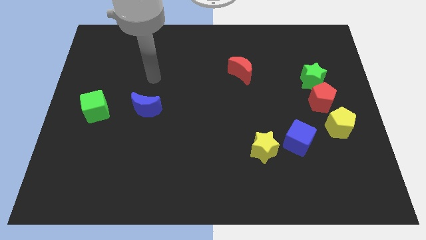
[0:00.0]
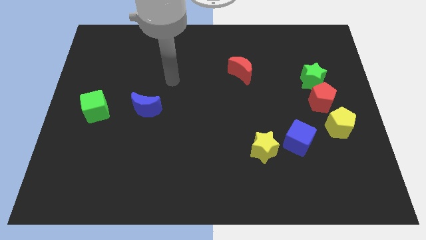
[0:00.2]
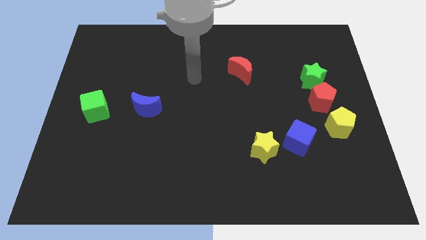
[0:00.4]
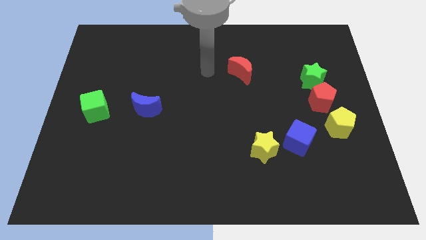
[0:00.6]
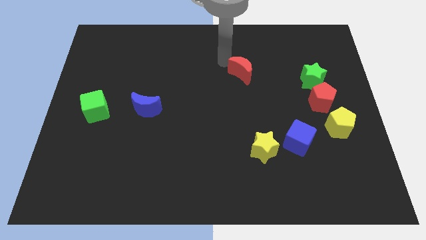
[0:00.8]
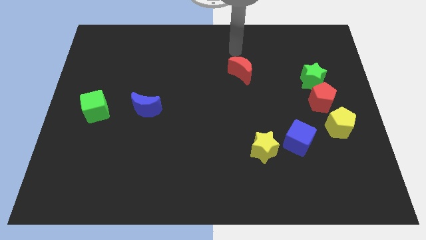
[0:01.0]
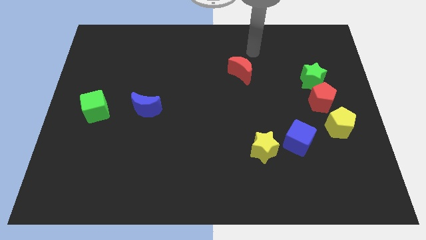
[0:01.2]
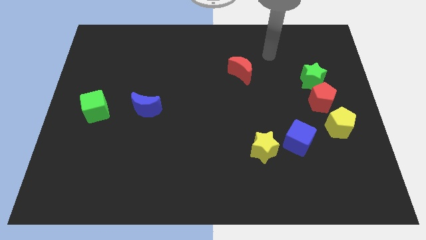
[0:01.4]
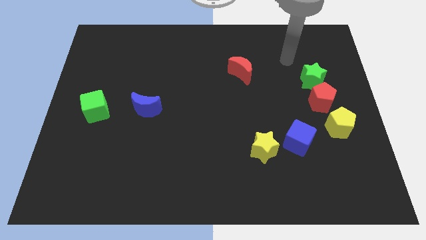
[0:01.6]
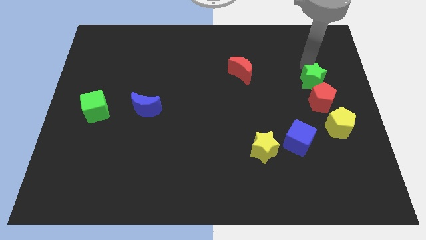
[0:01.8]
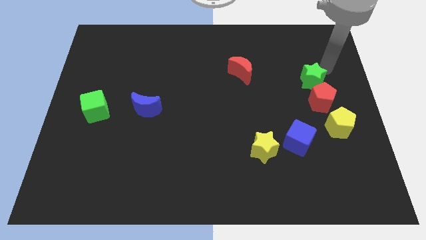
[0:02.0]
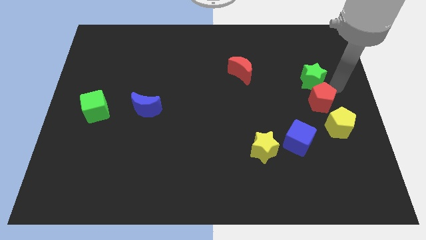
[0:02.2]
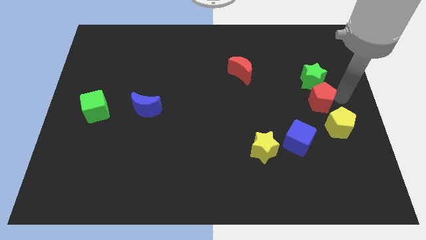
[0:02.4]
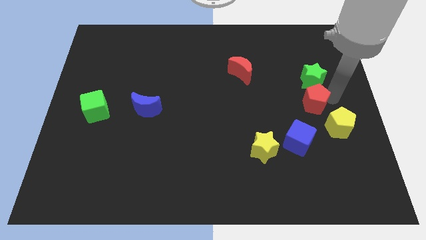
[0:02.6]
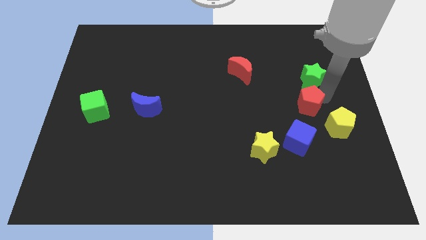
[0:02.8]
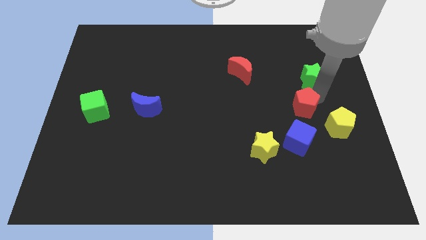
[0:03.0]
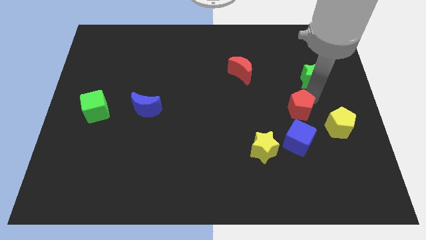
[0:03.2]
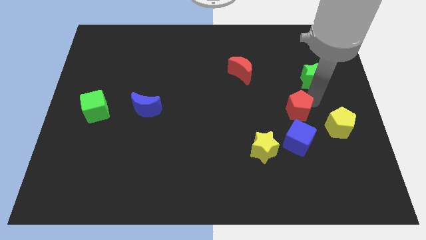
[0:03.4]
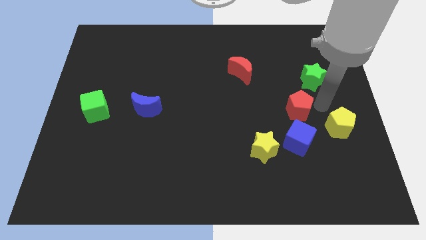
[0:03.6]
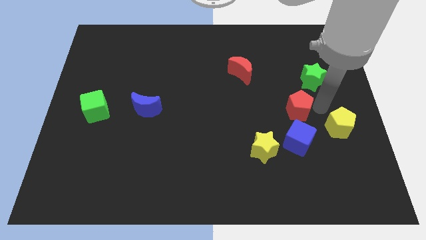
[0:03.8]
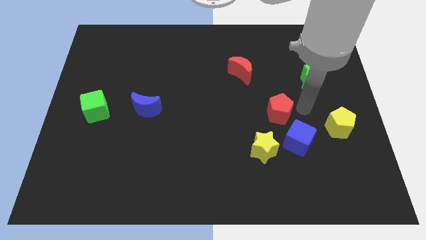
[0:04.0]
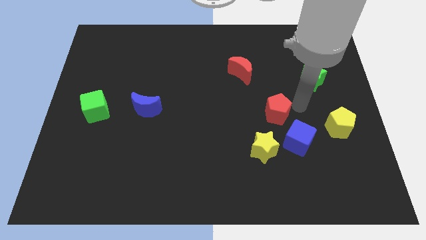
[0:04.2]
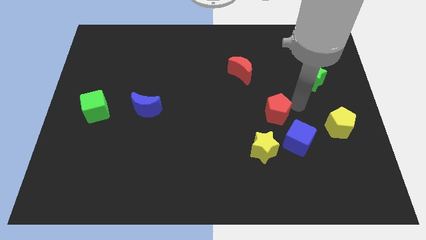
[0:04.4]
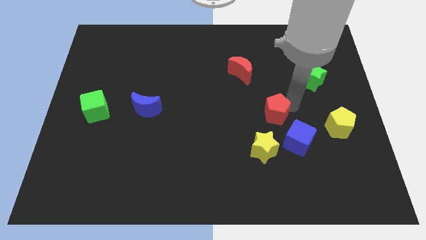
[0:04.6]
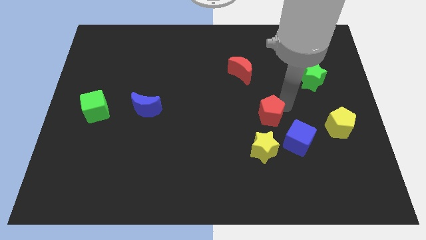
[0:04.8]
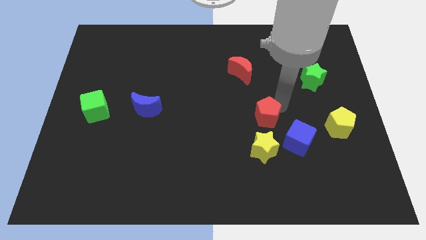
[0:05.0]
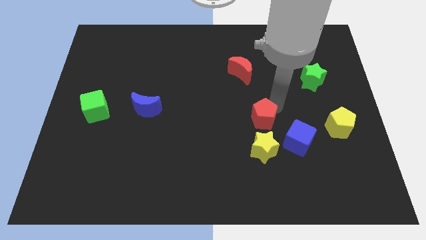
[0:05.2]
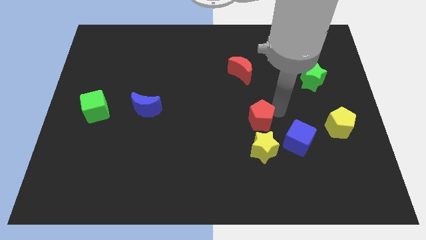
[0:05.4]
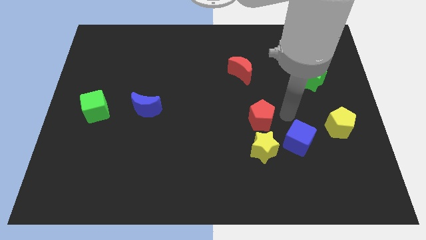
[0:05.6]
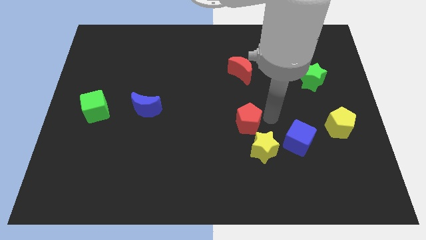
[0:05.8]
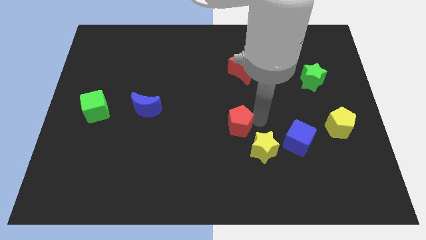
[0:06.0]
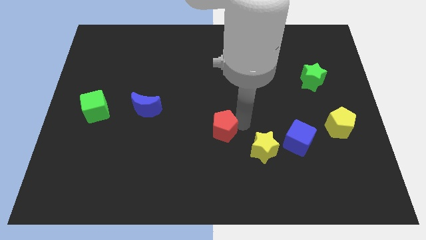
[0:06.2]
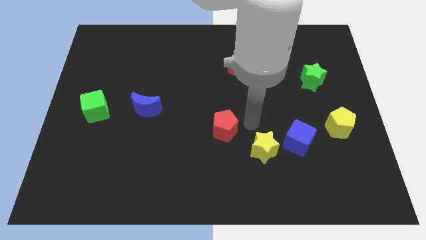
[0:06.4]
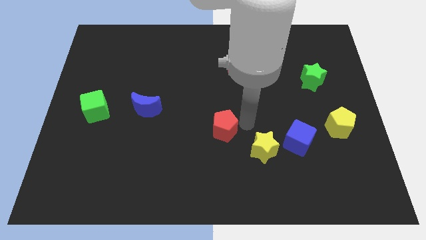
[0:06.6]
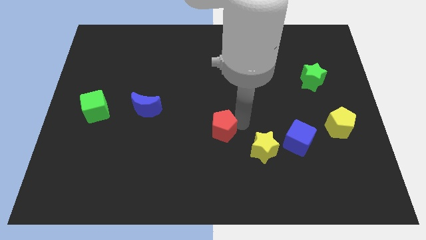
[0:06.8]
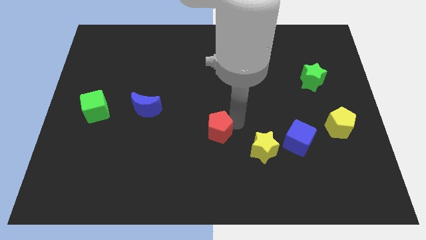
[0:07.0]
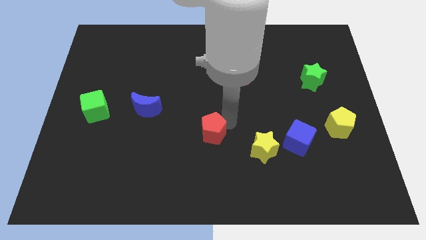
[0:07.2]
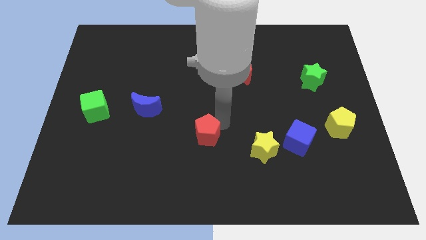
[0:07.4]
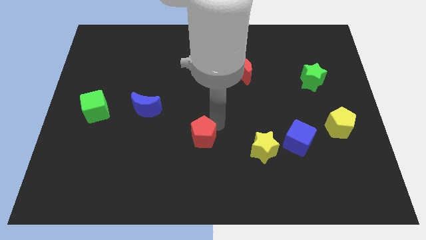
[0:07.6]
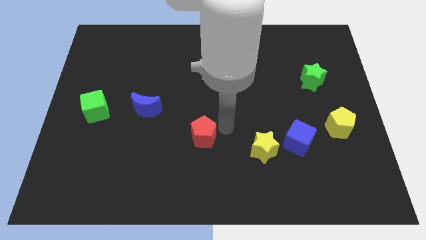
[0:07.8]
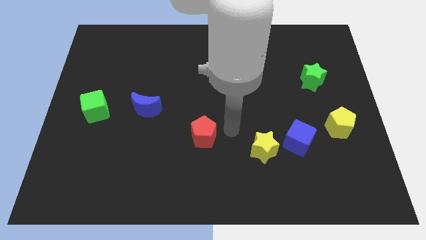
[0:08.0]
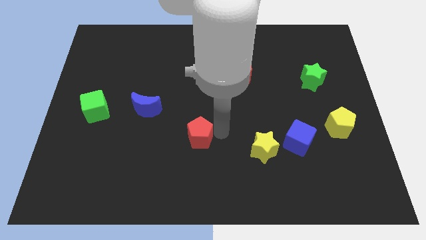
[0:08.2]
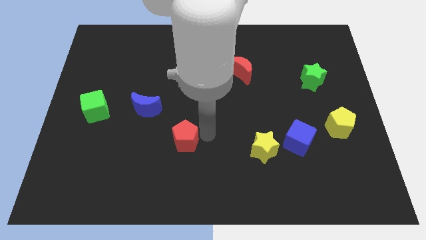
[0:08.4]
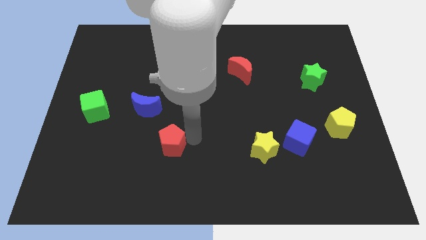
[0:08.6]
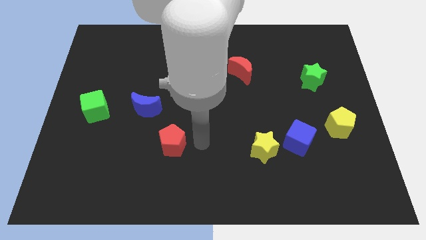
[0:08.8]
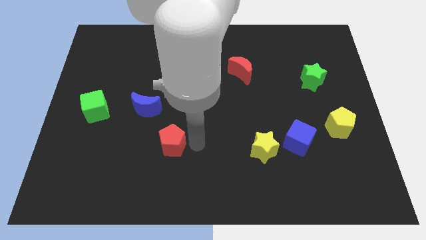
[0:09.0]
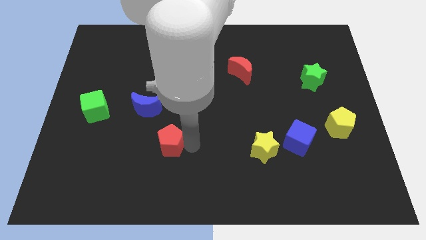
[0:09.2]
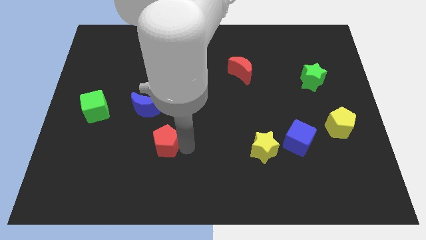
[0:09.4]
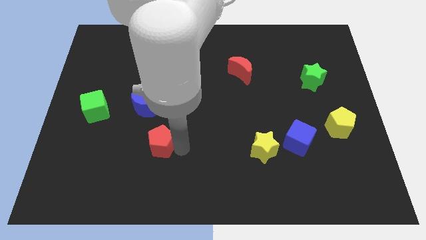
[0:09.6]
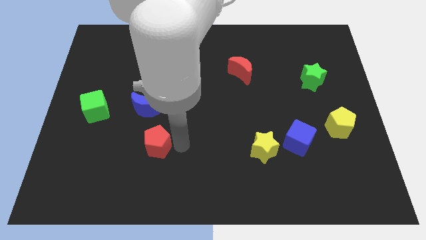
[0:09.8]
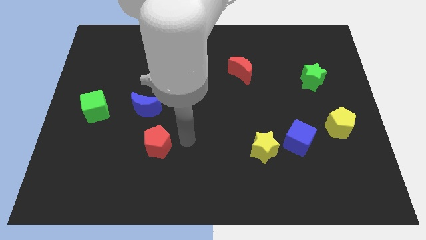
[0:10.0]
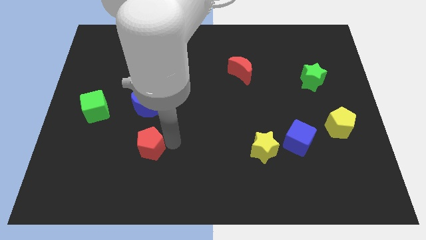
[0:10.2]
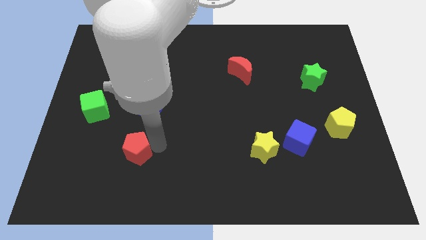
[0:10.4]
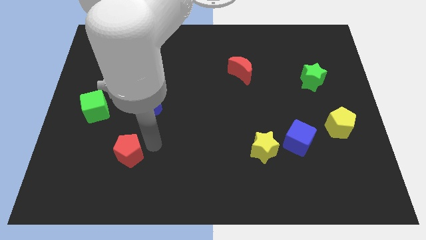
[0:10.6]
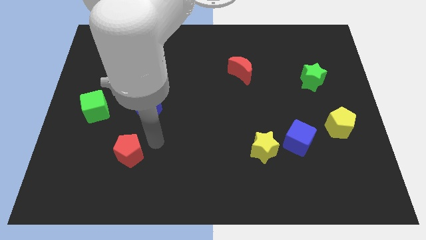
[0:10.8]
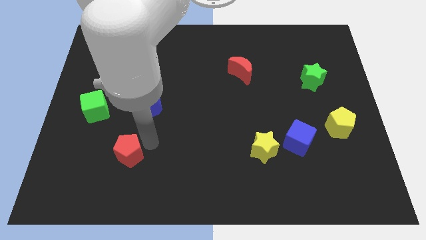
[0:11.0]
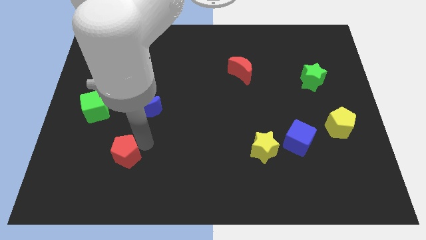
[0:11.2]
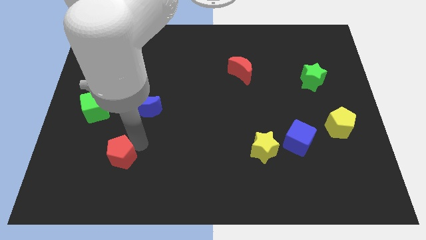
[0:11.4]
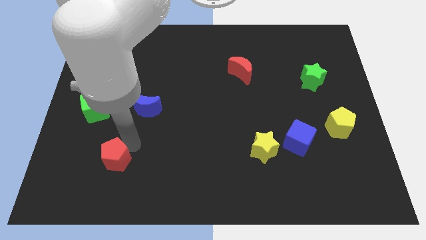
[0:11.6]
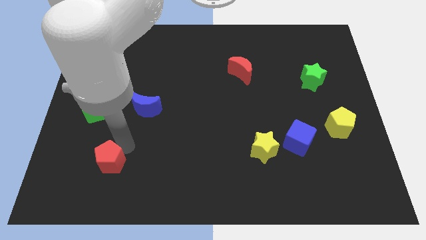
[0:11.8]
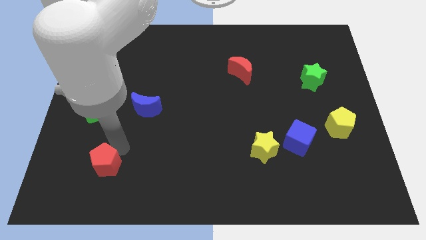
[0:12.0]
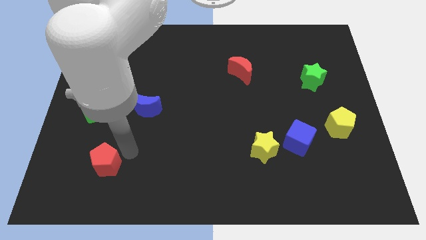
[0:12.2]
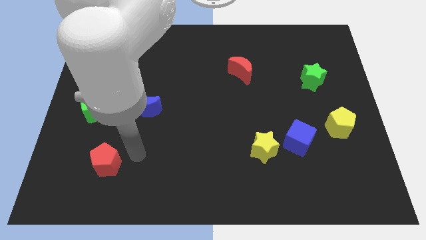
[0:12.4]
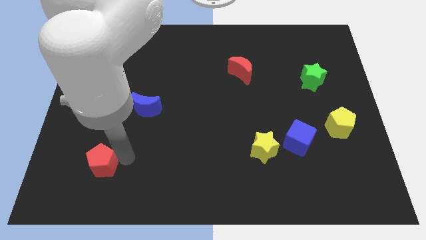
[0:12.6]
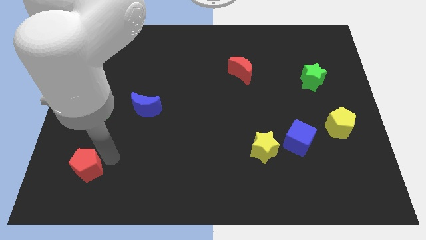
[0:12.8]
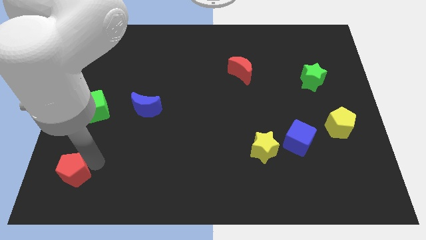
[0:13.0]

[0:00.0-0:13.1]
push the red pentagon to the bottom left

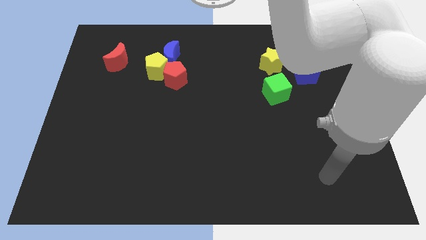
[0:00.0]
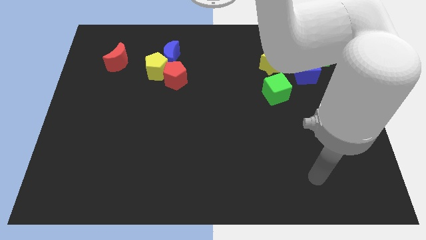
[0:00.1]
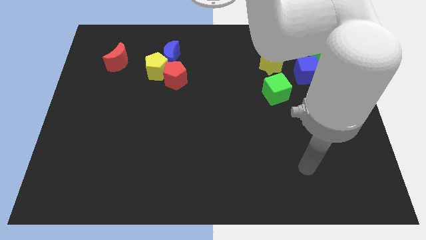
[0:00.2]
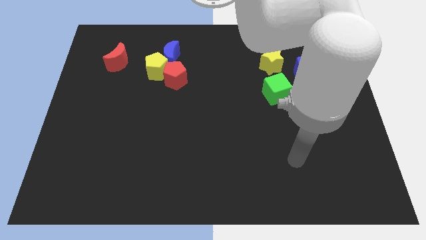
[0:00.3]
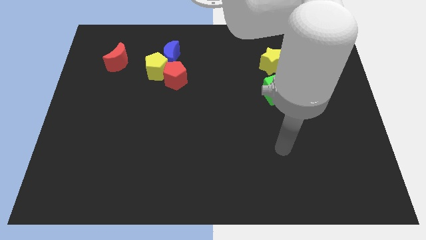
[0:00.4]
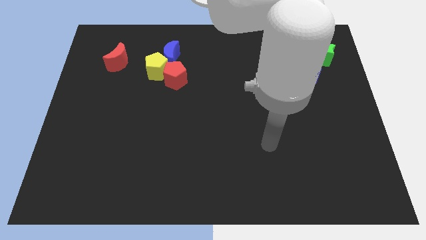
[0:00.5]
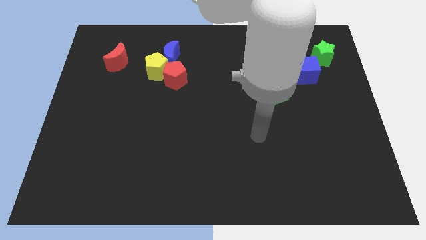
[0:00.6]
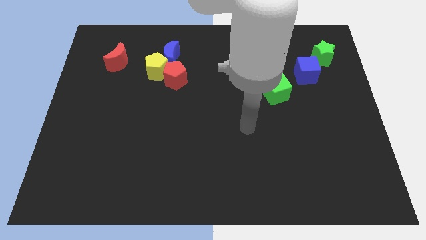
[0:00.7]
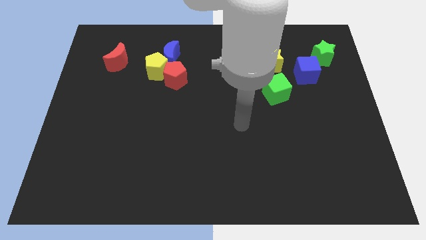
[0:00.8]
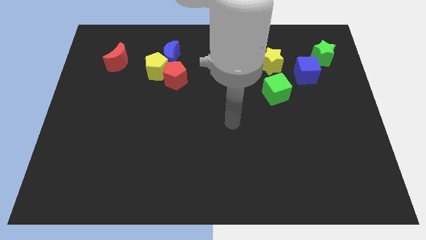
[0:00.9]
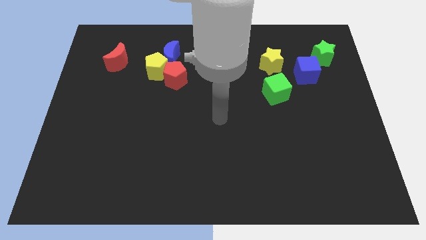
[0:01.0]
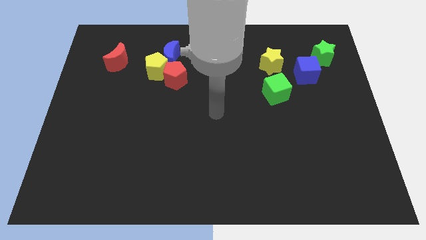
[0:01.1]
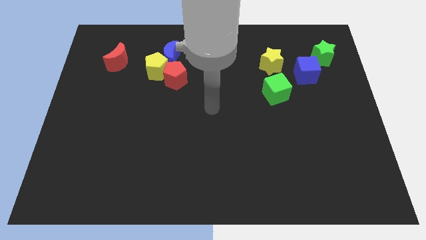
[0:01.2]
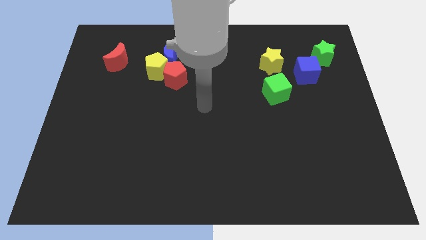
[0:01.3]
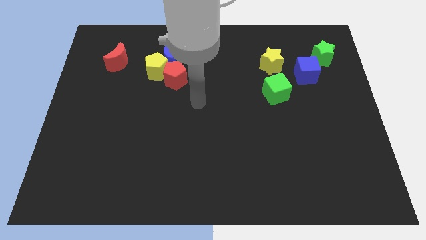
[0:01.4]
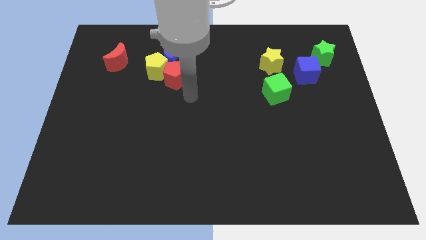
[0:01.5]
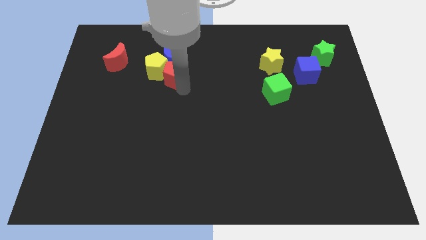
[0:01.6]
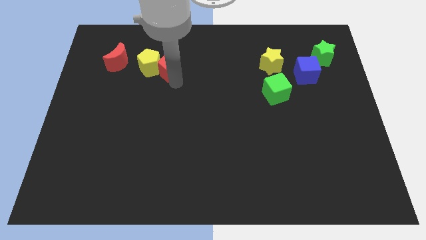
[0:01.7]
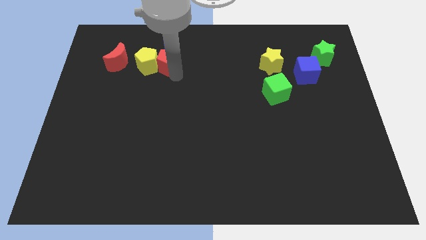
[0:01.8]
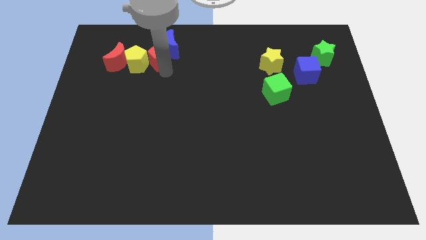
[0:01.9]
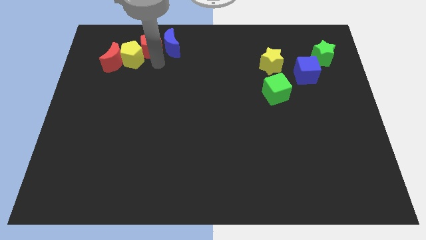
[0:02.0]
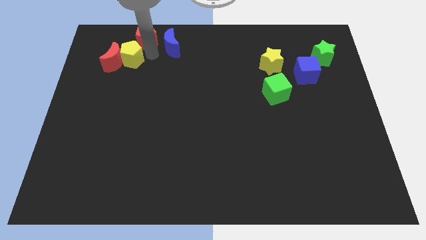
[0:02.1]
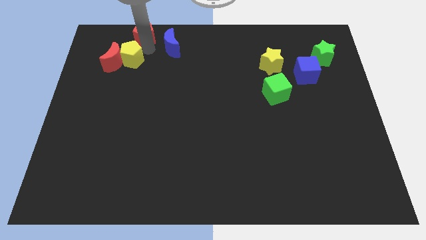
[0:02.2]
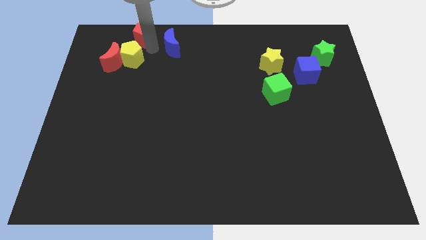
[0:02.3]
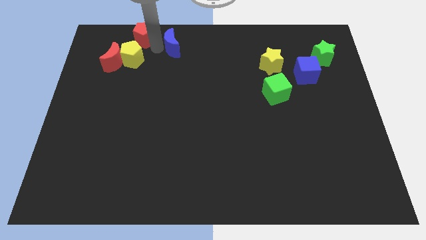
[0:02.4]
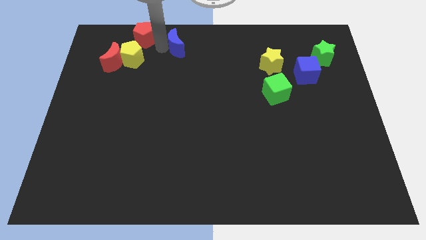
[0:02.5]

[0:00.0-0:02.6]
push the blue moon to the towards your base
